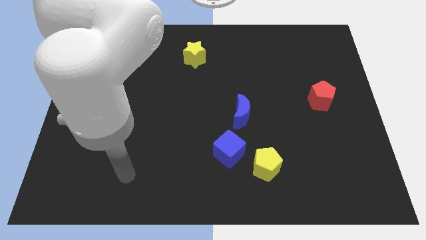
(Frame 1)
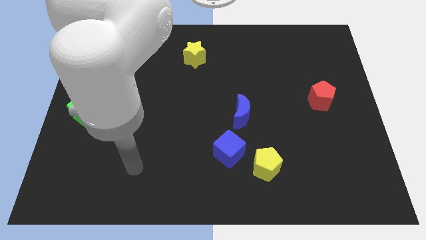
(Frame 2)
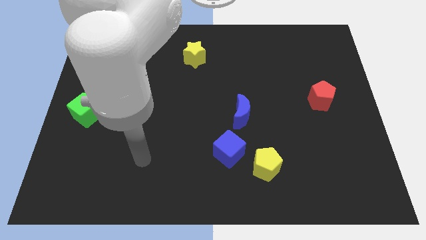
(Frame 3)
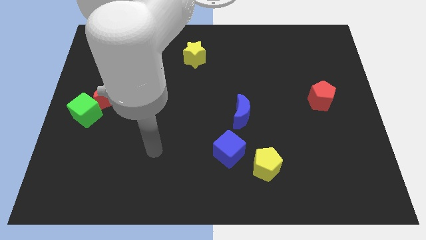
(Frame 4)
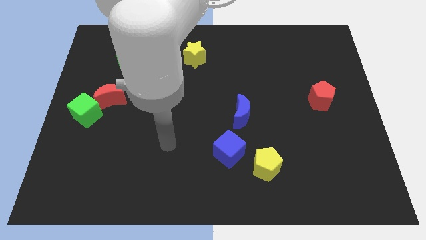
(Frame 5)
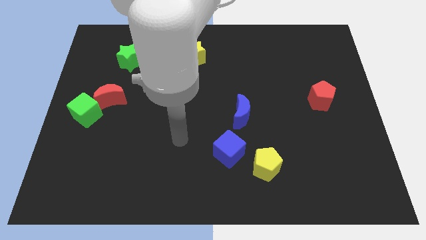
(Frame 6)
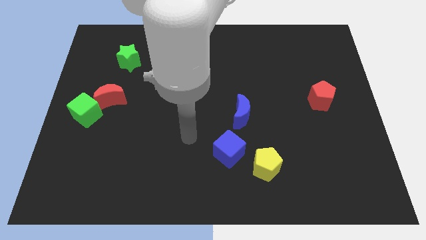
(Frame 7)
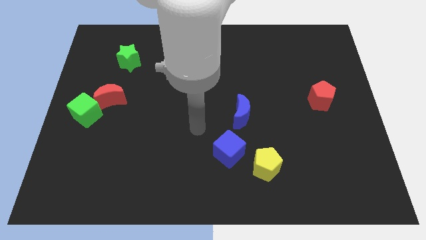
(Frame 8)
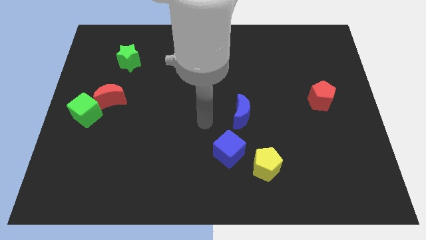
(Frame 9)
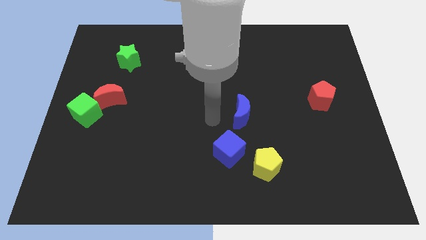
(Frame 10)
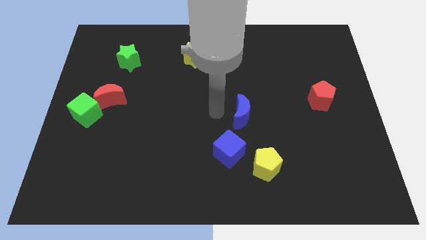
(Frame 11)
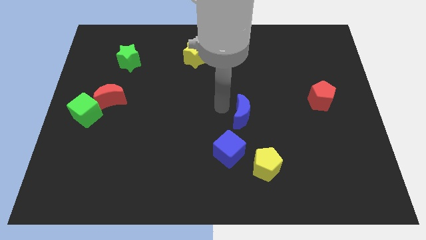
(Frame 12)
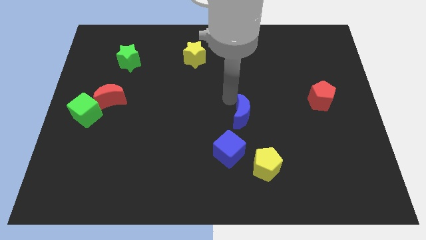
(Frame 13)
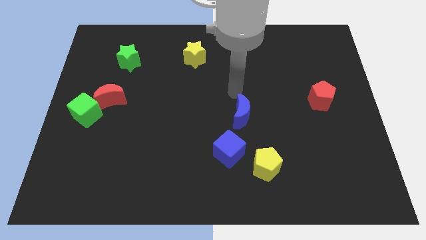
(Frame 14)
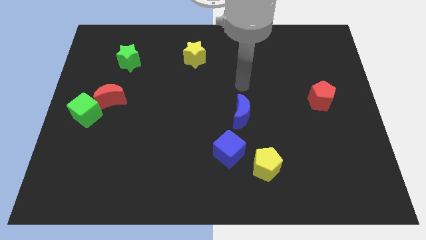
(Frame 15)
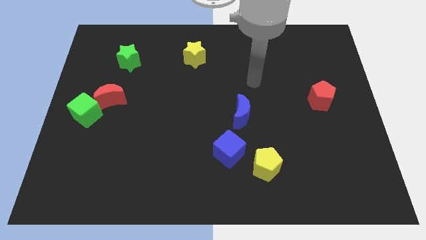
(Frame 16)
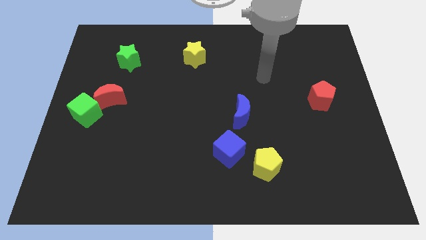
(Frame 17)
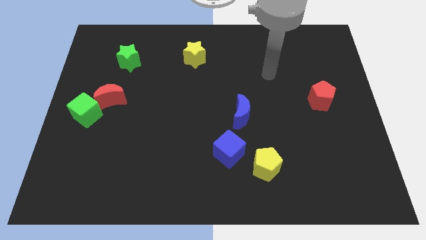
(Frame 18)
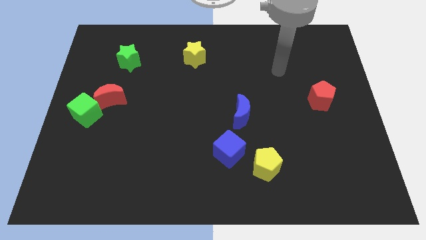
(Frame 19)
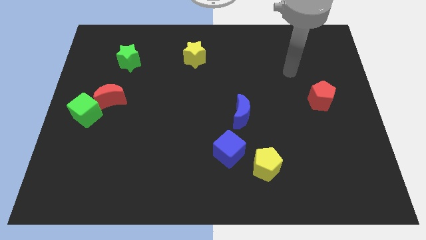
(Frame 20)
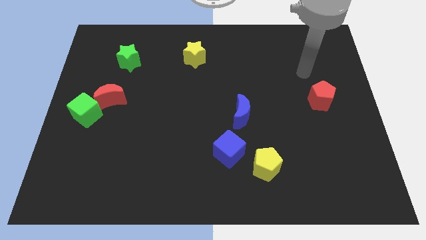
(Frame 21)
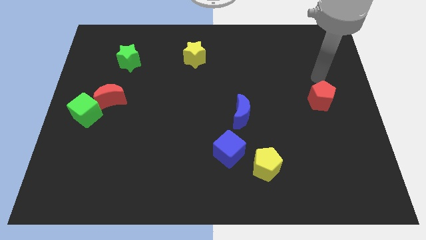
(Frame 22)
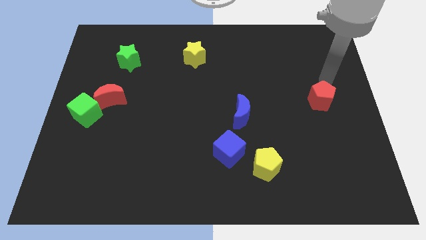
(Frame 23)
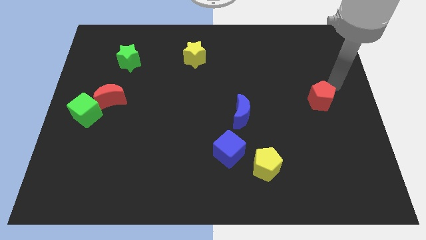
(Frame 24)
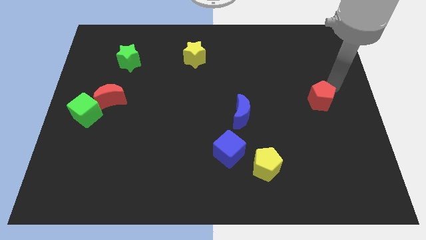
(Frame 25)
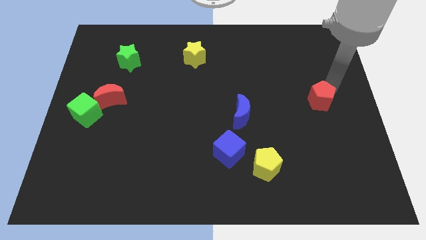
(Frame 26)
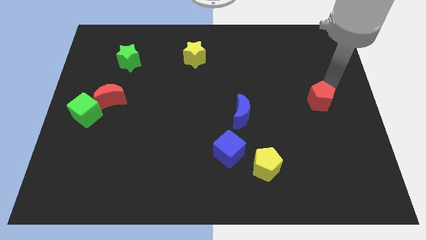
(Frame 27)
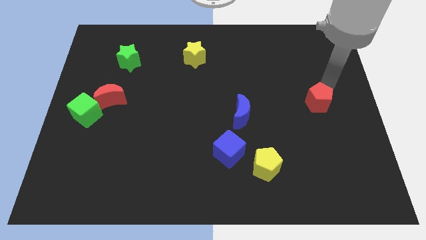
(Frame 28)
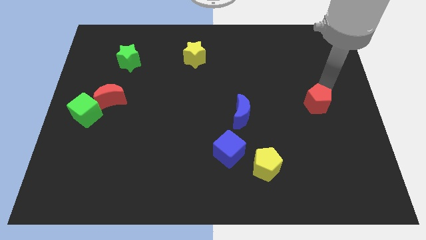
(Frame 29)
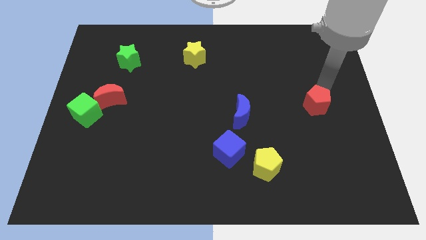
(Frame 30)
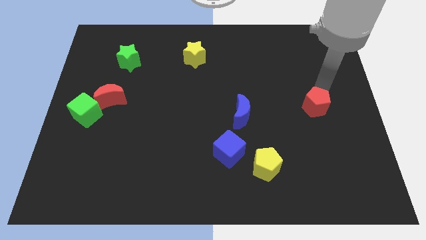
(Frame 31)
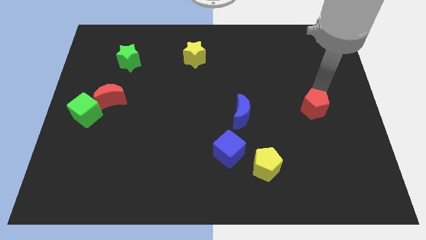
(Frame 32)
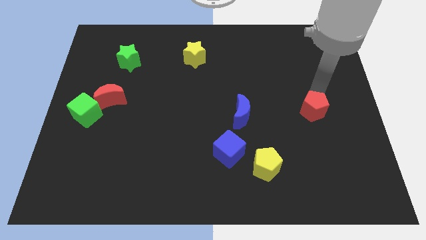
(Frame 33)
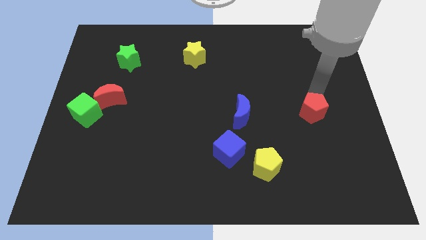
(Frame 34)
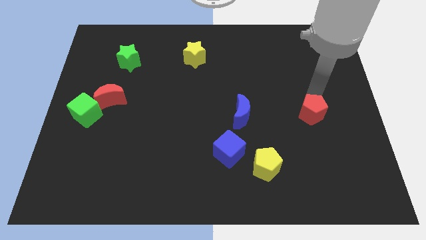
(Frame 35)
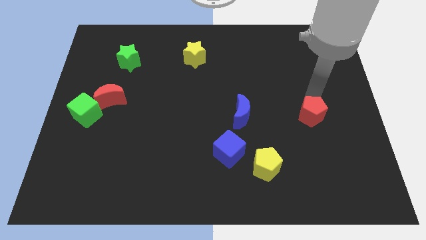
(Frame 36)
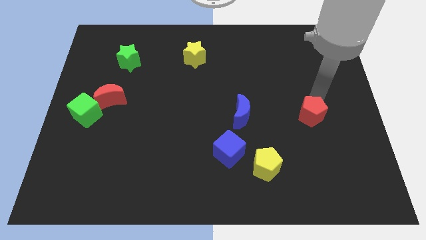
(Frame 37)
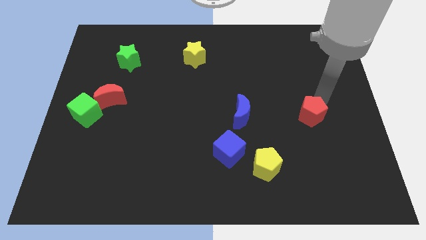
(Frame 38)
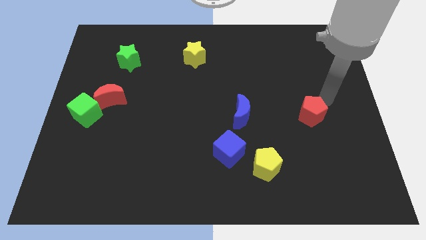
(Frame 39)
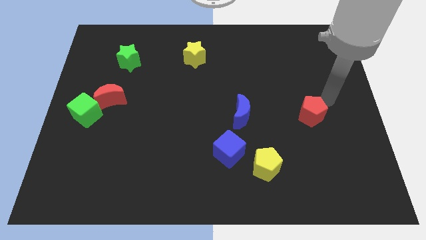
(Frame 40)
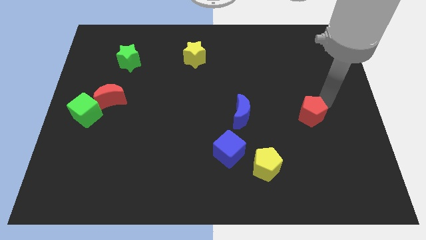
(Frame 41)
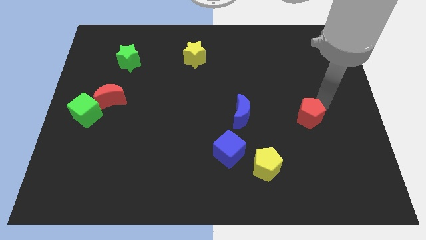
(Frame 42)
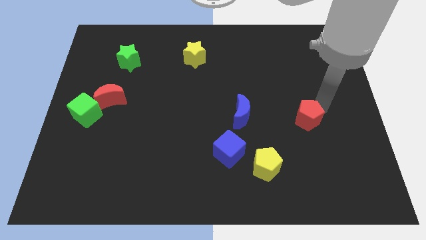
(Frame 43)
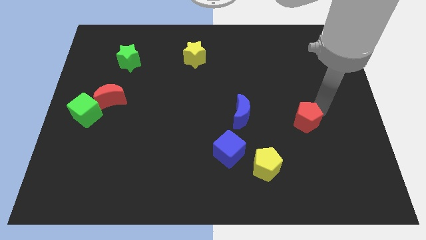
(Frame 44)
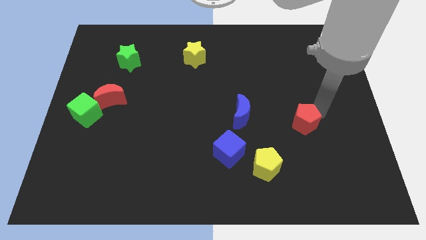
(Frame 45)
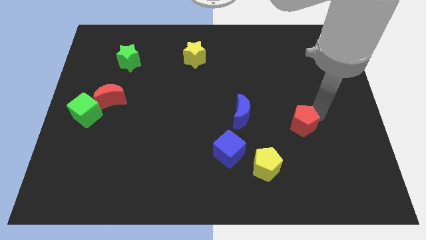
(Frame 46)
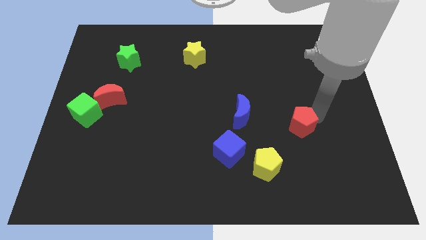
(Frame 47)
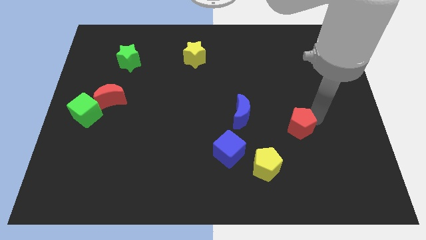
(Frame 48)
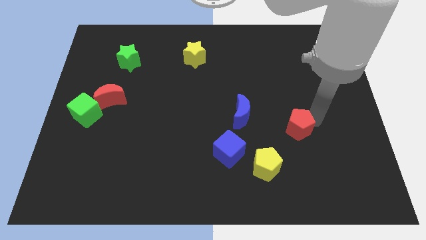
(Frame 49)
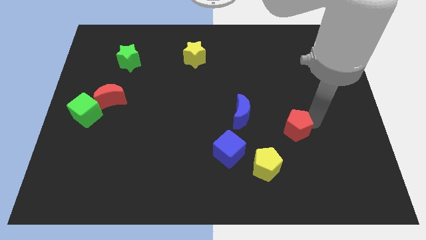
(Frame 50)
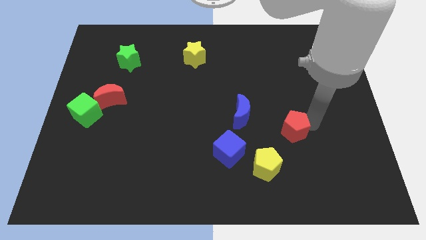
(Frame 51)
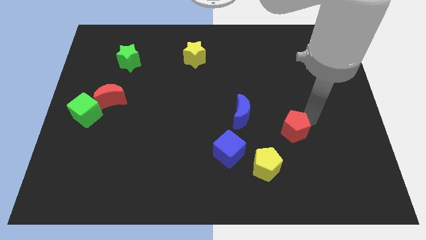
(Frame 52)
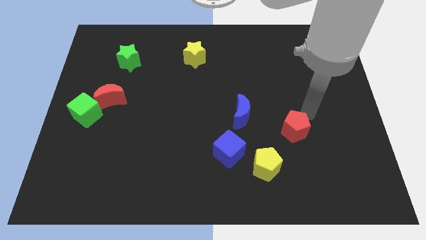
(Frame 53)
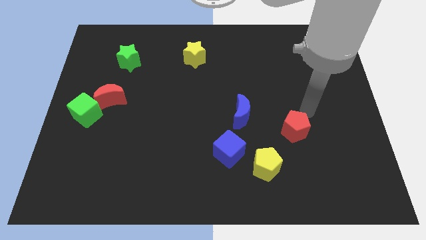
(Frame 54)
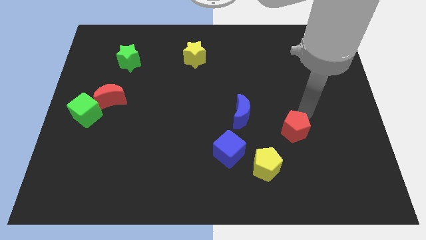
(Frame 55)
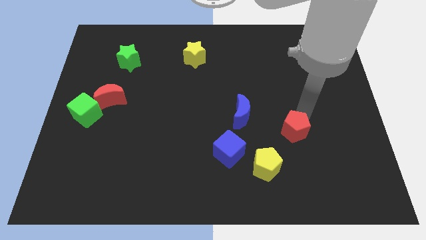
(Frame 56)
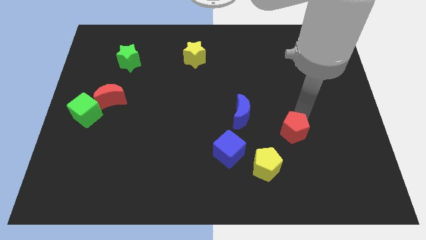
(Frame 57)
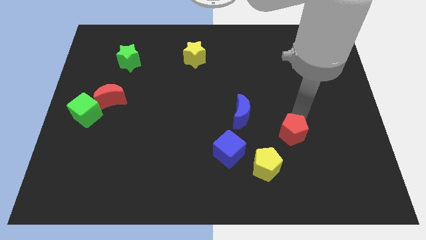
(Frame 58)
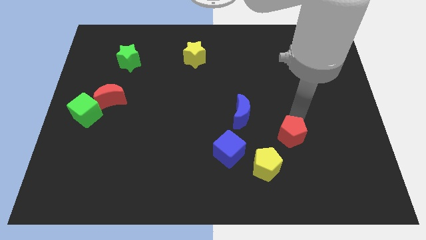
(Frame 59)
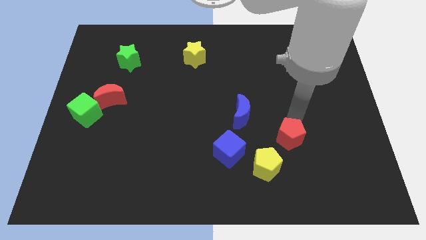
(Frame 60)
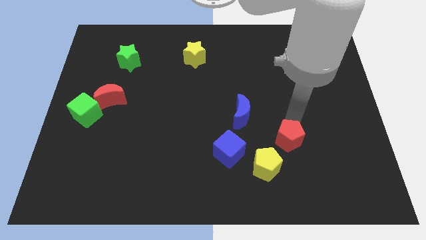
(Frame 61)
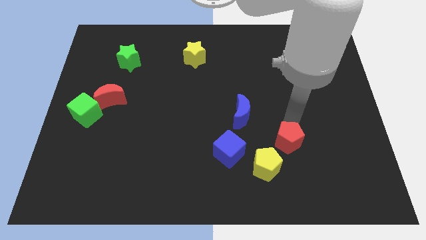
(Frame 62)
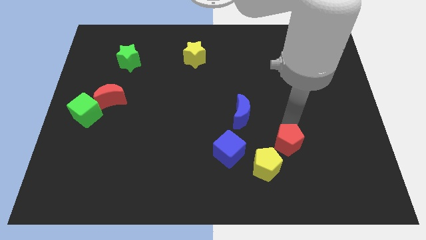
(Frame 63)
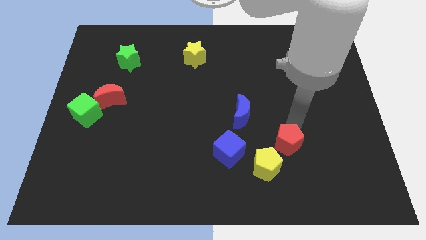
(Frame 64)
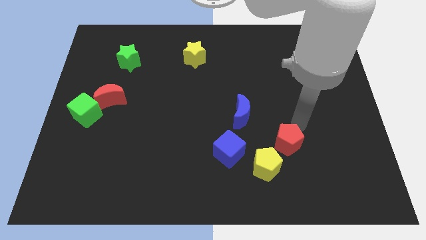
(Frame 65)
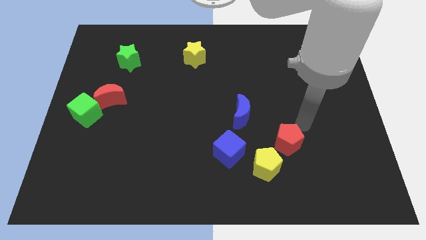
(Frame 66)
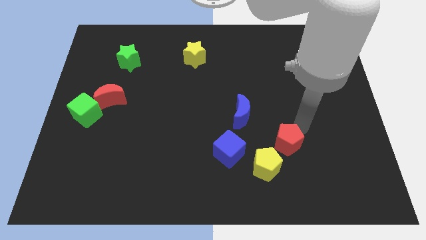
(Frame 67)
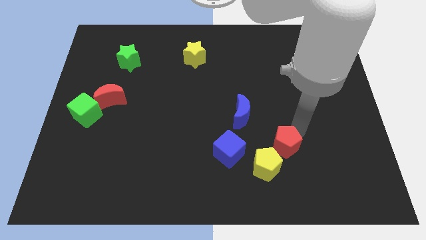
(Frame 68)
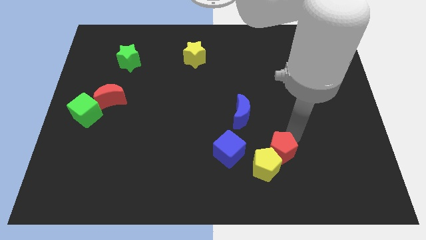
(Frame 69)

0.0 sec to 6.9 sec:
slide the red pentagon towards the yellow pentagon

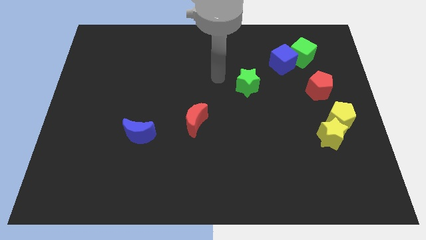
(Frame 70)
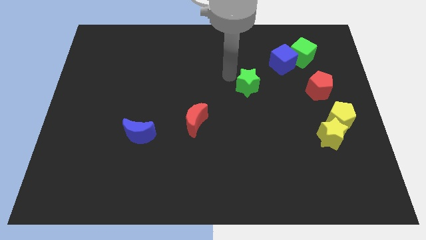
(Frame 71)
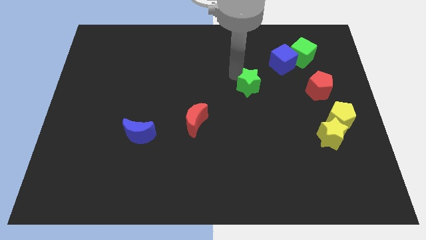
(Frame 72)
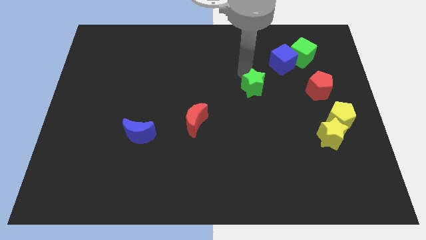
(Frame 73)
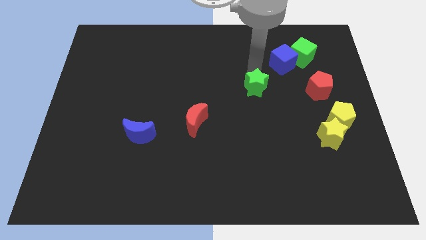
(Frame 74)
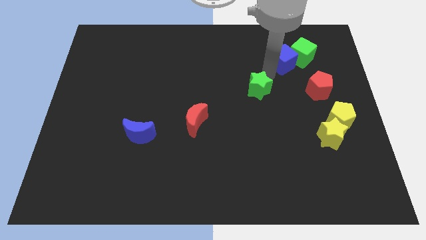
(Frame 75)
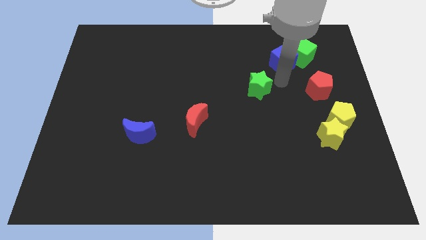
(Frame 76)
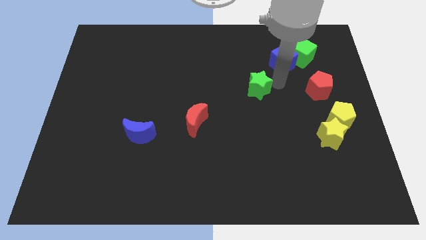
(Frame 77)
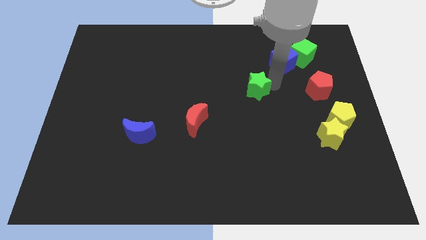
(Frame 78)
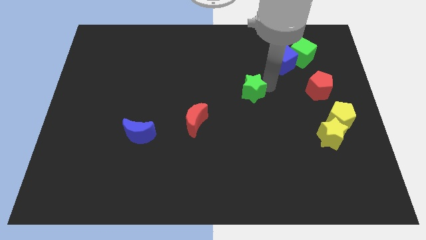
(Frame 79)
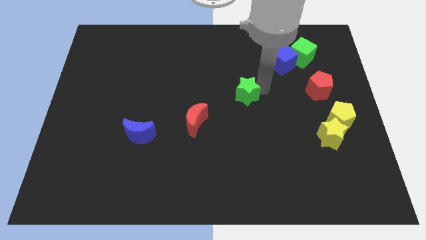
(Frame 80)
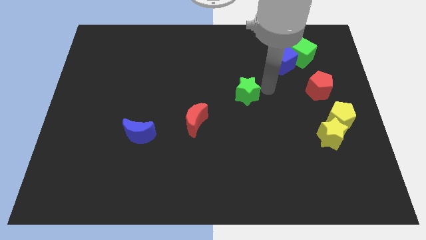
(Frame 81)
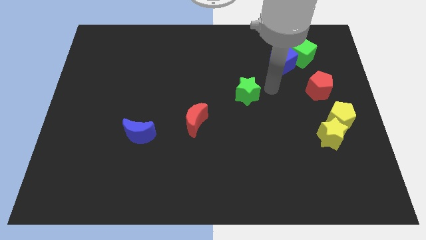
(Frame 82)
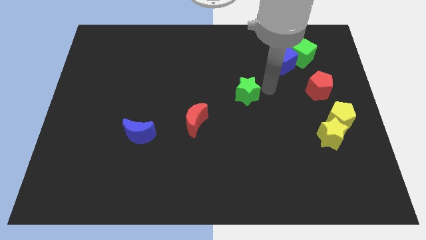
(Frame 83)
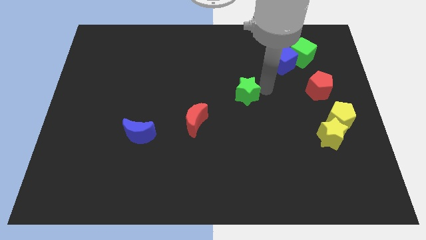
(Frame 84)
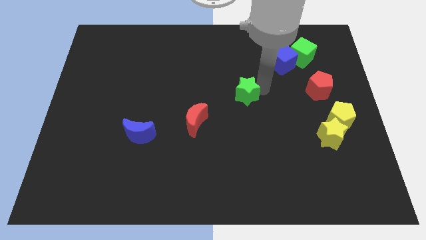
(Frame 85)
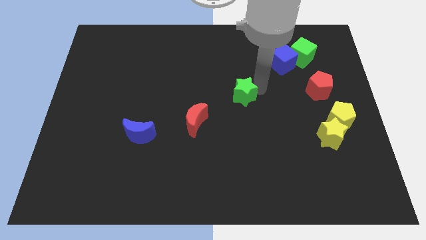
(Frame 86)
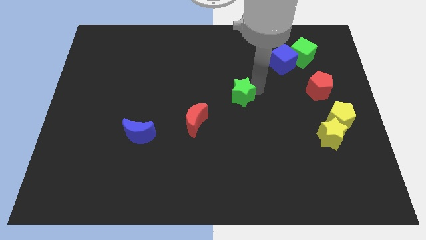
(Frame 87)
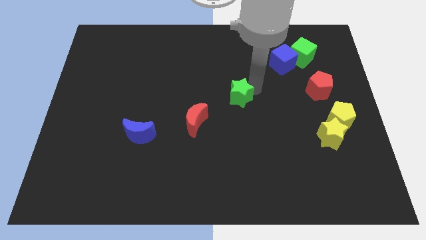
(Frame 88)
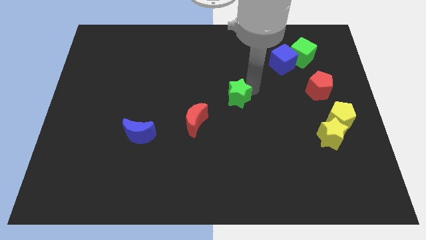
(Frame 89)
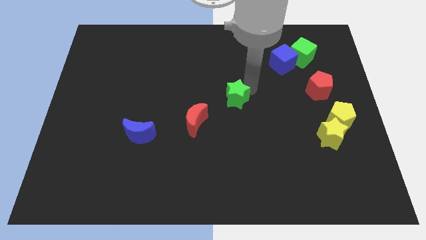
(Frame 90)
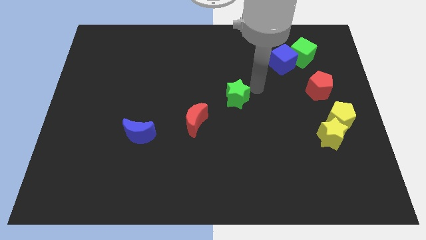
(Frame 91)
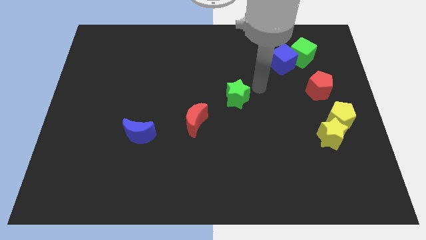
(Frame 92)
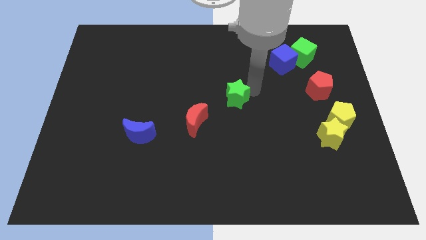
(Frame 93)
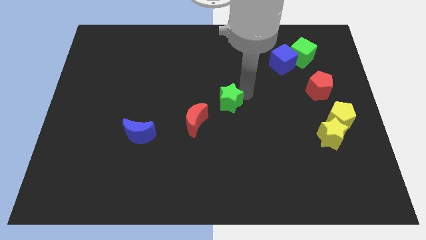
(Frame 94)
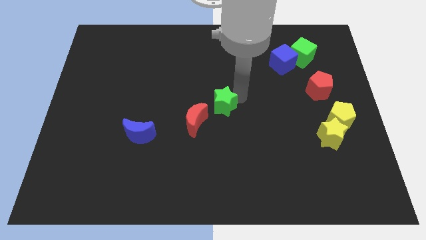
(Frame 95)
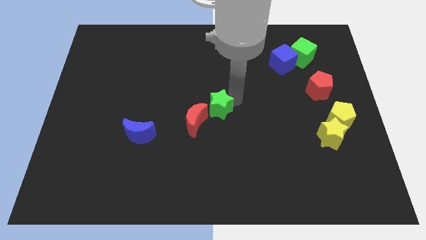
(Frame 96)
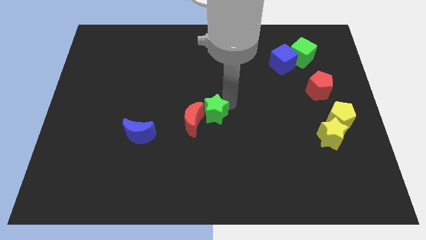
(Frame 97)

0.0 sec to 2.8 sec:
push the green star to the red moon
